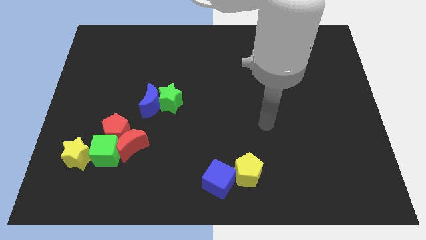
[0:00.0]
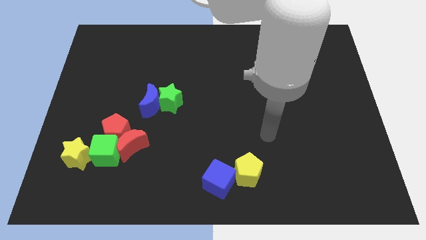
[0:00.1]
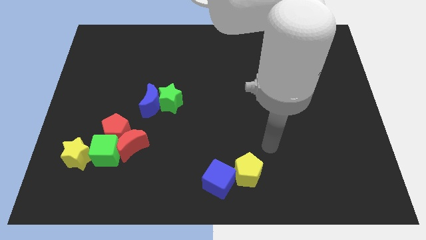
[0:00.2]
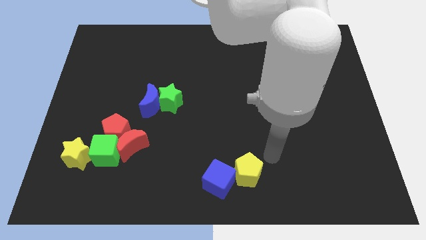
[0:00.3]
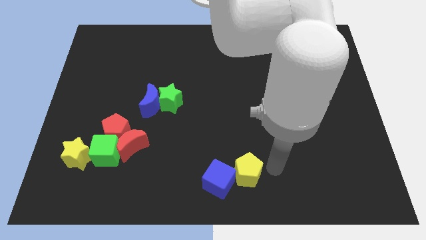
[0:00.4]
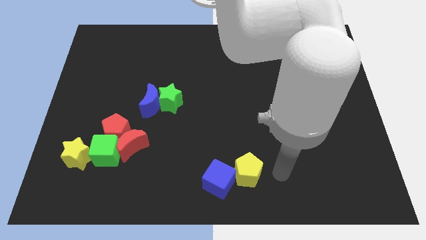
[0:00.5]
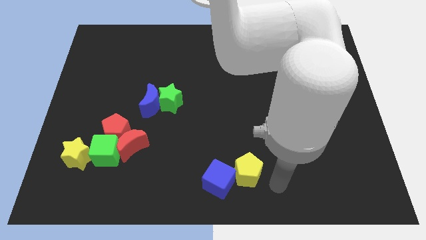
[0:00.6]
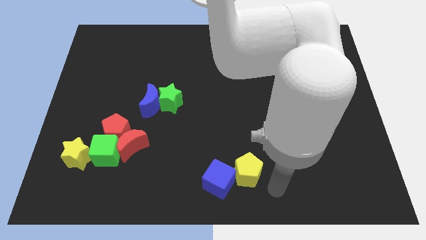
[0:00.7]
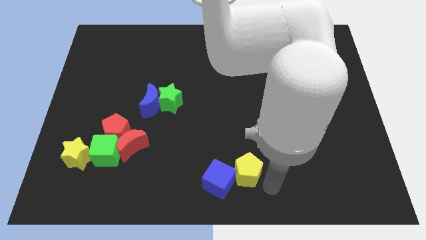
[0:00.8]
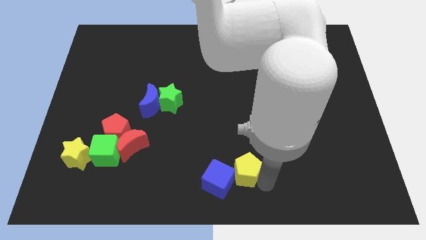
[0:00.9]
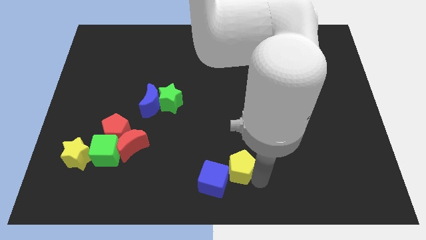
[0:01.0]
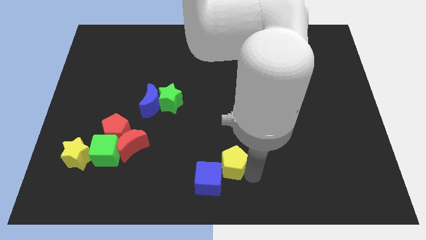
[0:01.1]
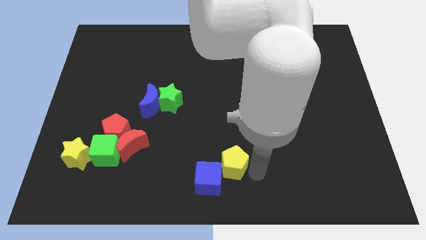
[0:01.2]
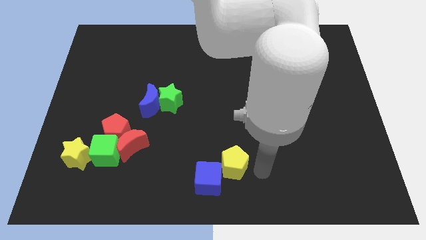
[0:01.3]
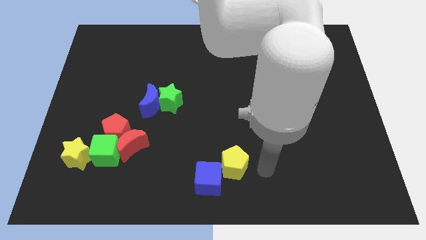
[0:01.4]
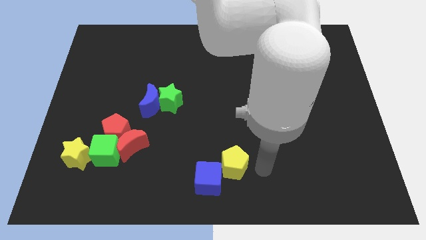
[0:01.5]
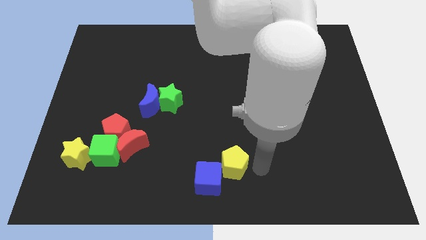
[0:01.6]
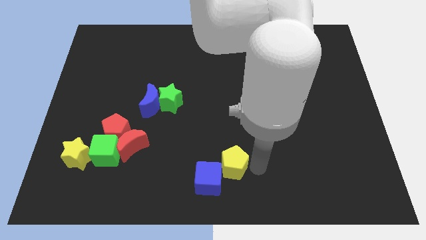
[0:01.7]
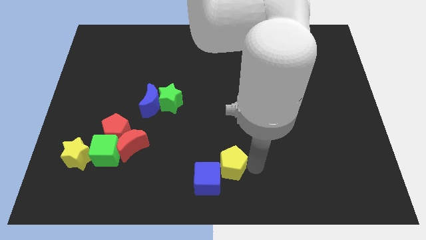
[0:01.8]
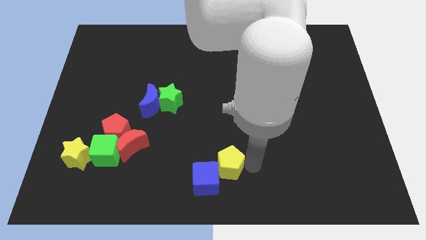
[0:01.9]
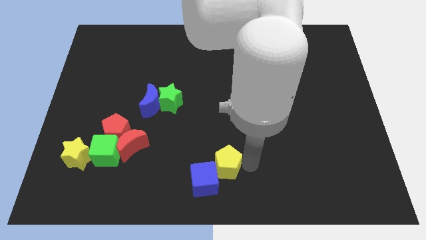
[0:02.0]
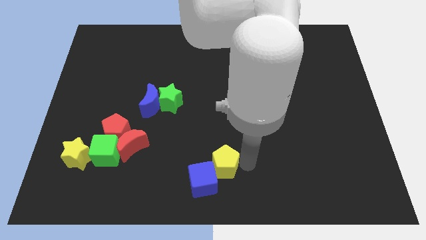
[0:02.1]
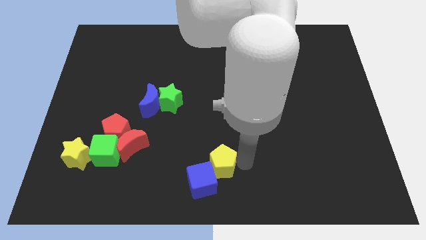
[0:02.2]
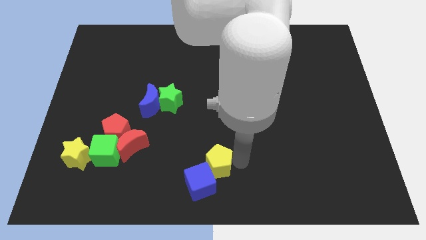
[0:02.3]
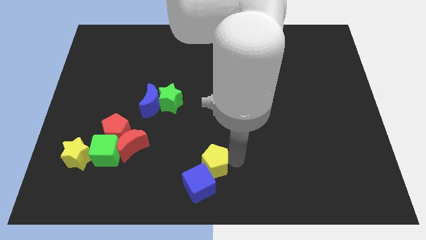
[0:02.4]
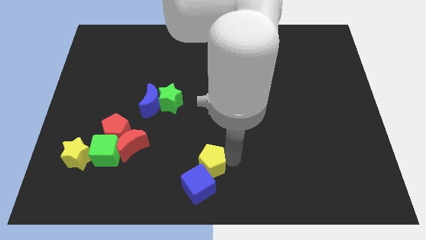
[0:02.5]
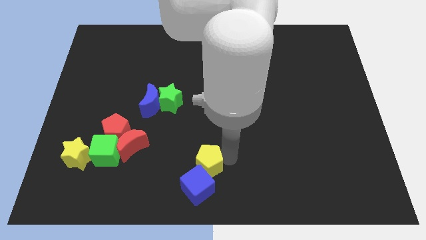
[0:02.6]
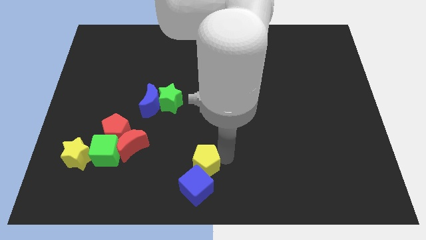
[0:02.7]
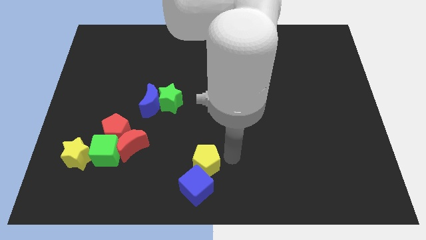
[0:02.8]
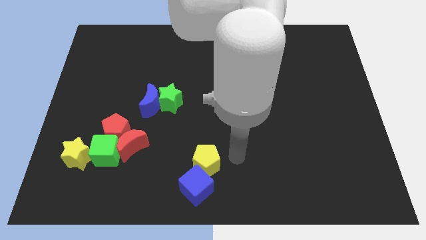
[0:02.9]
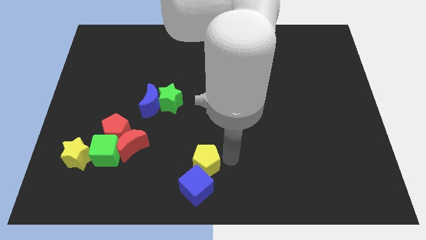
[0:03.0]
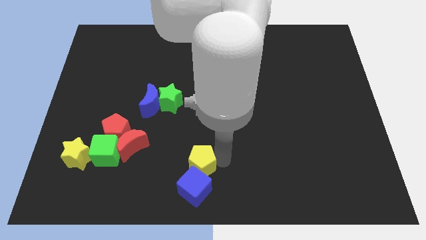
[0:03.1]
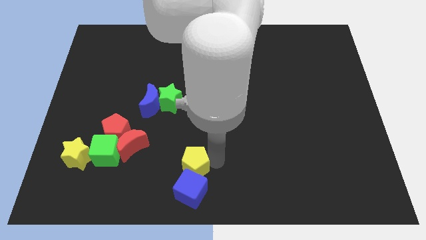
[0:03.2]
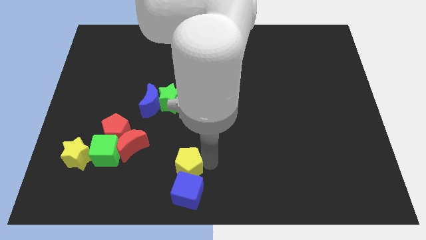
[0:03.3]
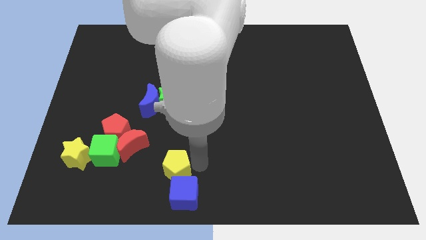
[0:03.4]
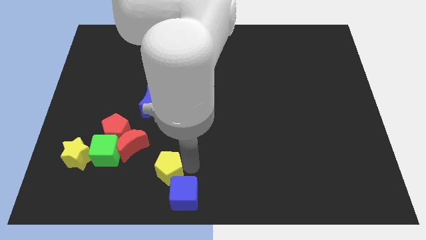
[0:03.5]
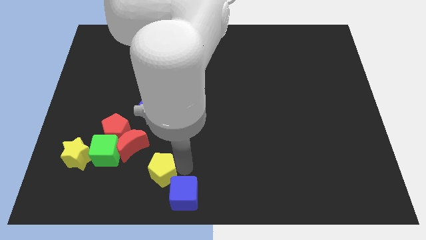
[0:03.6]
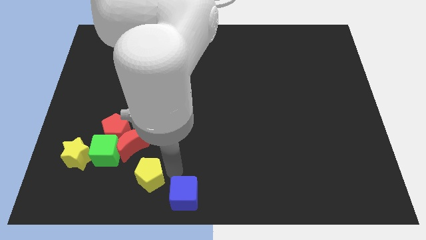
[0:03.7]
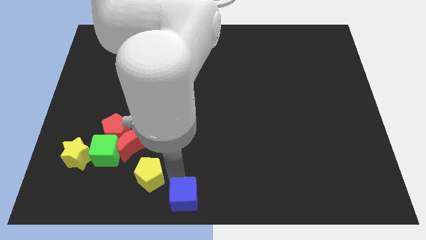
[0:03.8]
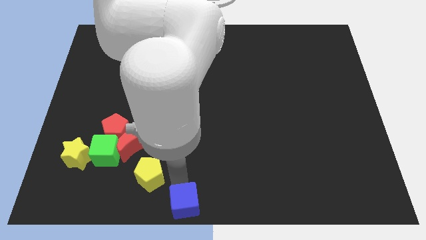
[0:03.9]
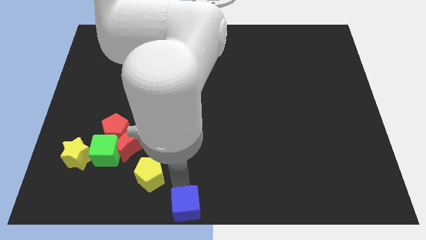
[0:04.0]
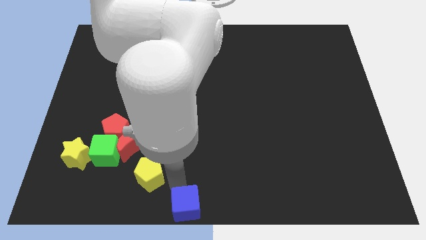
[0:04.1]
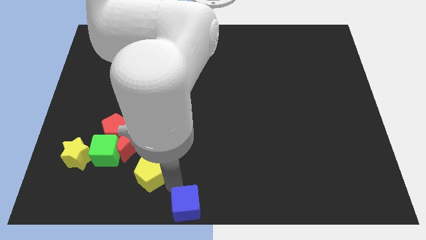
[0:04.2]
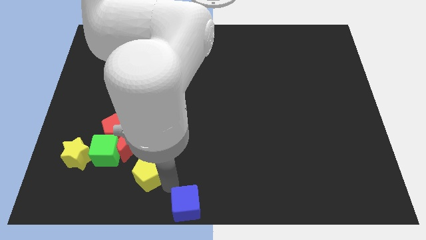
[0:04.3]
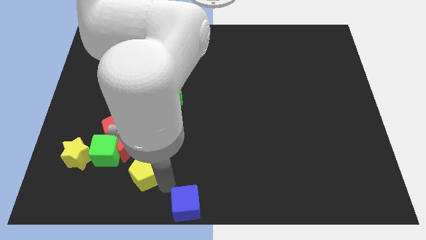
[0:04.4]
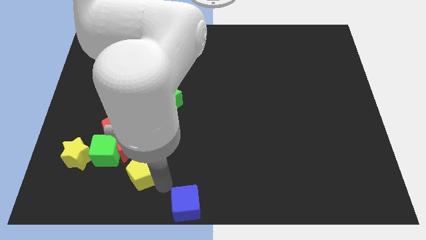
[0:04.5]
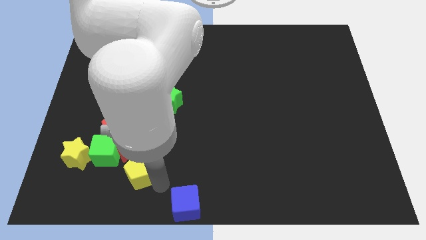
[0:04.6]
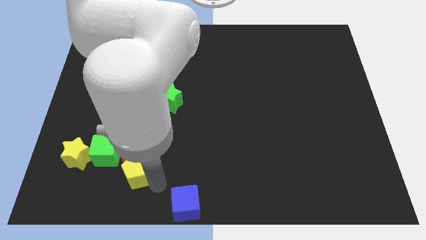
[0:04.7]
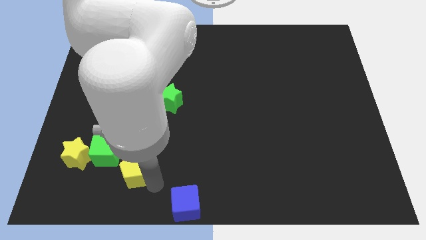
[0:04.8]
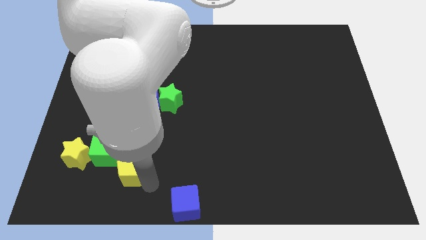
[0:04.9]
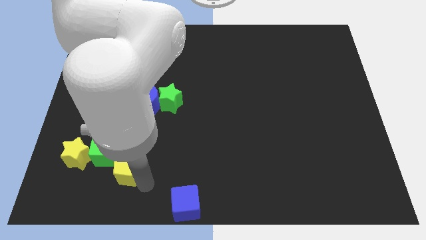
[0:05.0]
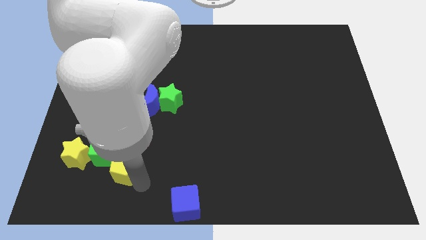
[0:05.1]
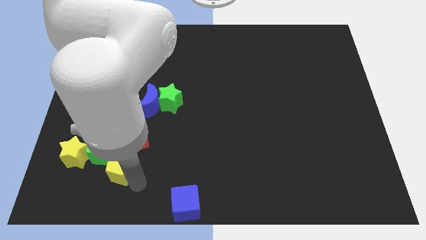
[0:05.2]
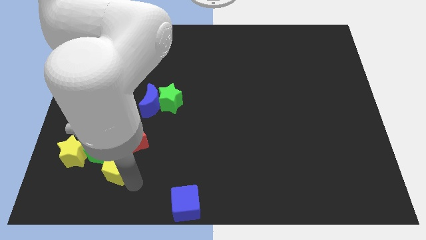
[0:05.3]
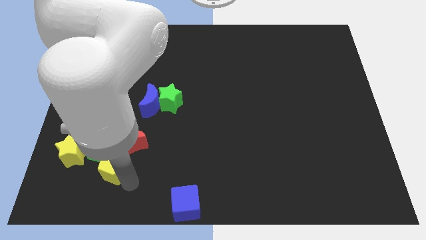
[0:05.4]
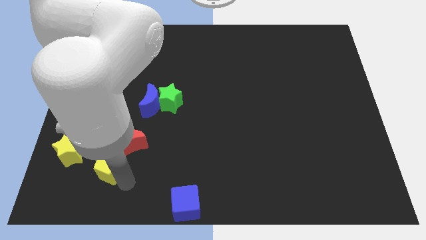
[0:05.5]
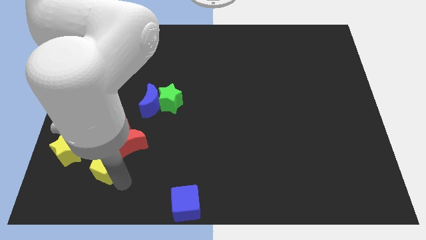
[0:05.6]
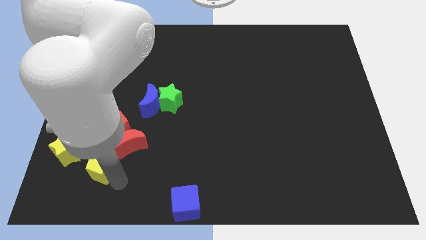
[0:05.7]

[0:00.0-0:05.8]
move the yellow pentagon to the green cube

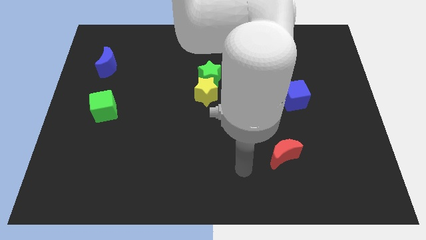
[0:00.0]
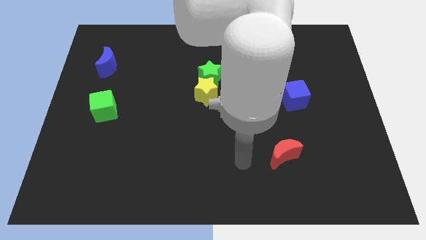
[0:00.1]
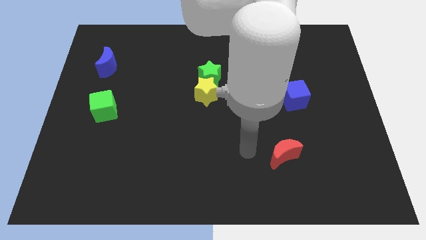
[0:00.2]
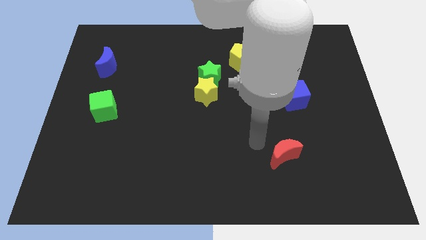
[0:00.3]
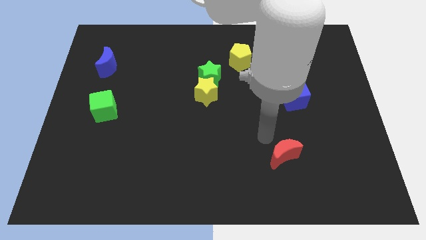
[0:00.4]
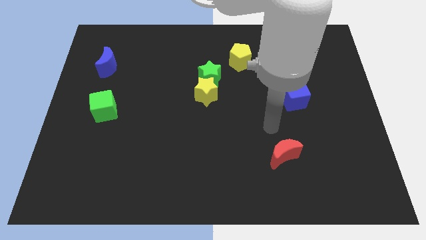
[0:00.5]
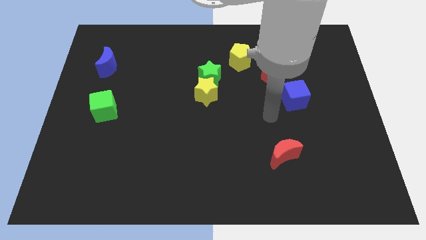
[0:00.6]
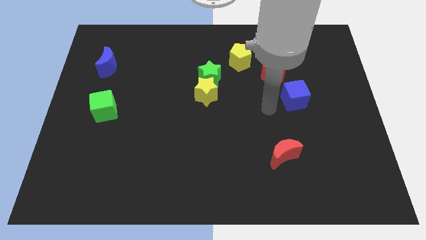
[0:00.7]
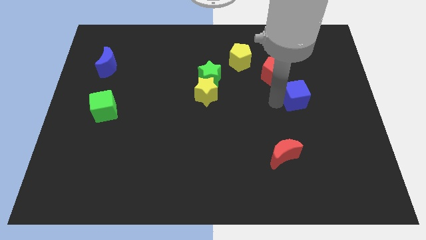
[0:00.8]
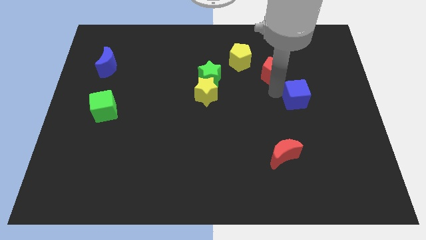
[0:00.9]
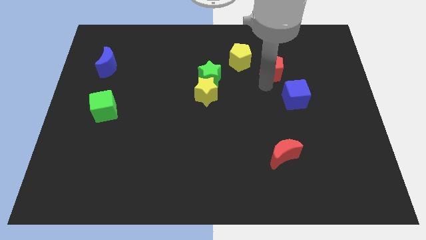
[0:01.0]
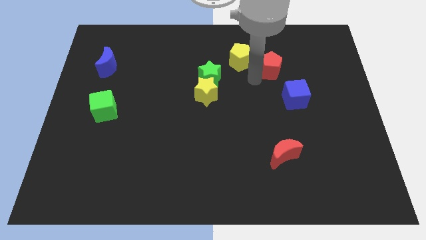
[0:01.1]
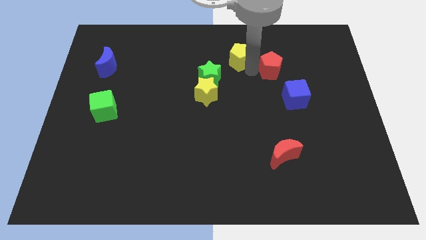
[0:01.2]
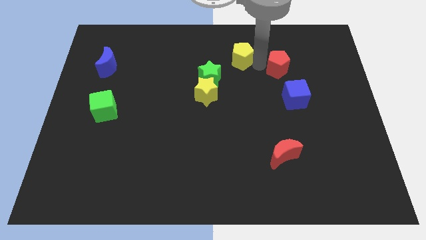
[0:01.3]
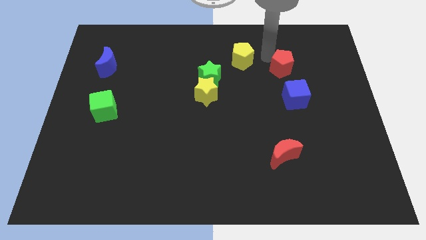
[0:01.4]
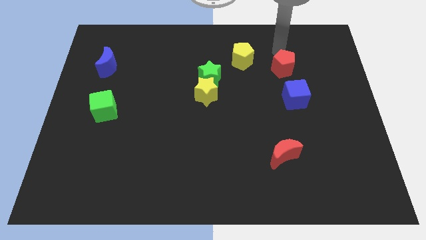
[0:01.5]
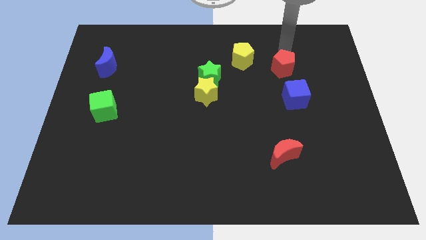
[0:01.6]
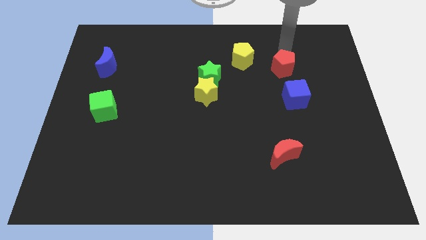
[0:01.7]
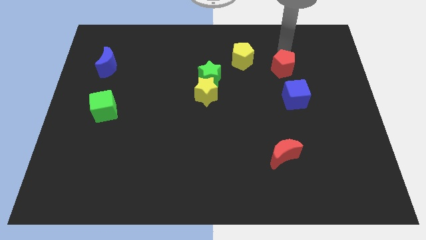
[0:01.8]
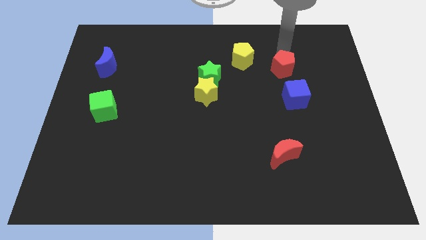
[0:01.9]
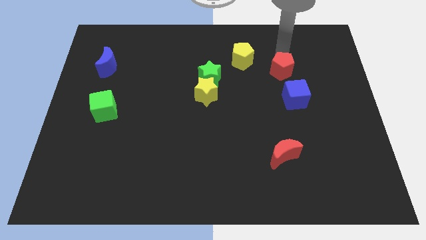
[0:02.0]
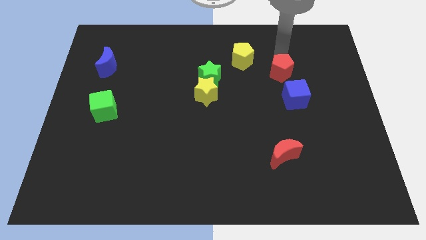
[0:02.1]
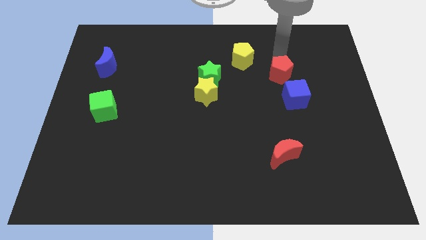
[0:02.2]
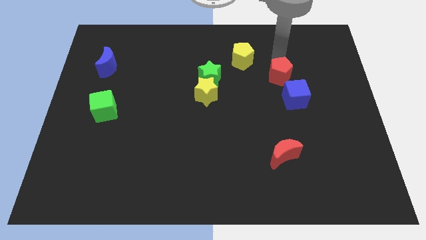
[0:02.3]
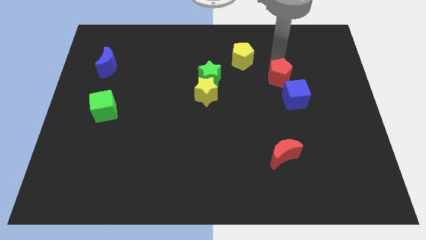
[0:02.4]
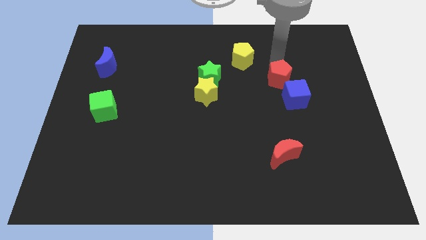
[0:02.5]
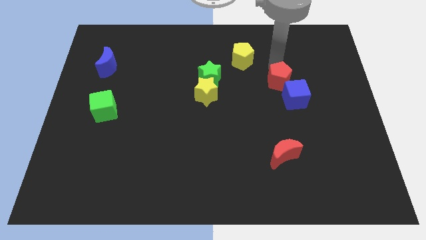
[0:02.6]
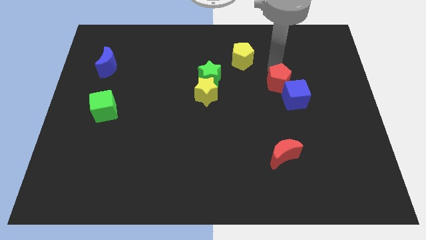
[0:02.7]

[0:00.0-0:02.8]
slide the red pentagon next to the blue cube
